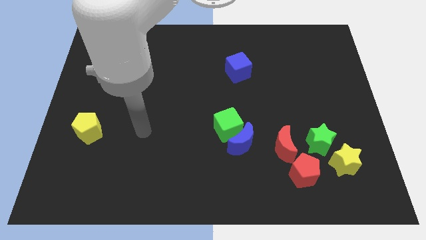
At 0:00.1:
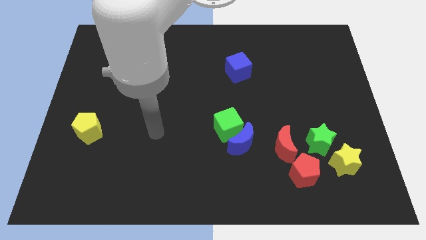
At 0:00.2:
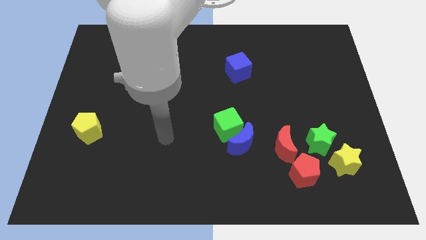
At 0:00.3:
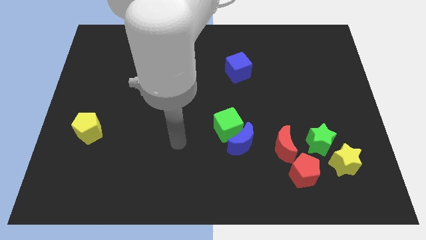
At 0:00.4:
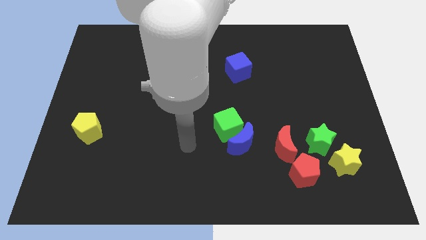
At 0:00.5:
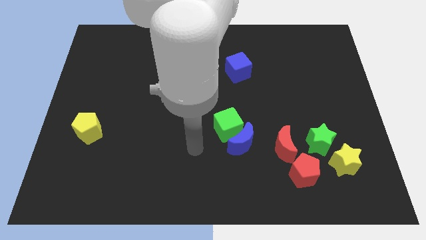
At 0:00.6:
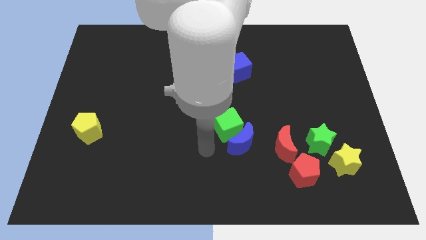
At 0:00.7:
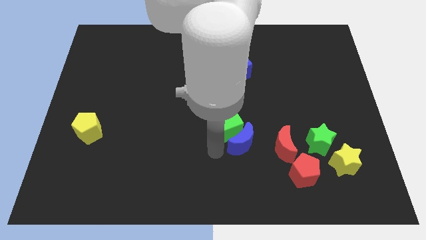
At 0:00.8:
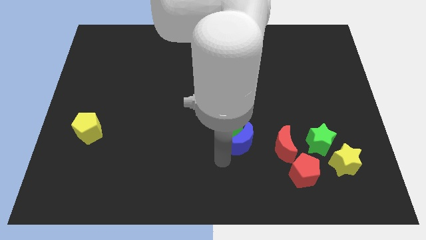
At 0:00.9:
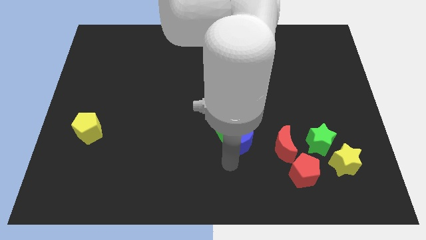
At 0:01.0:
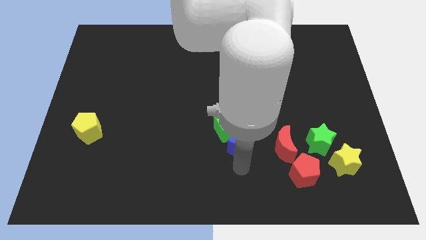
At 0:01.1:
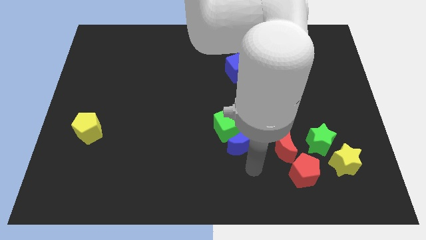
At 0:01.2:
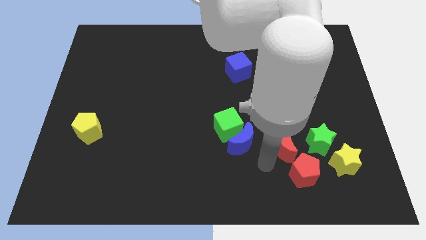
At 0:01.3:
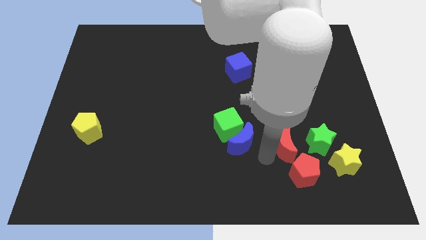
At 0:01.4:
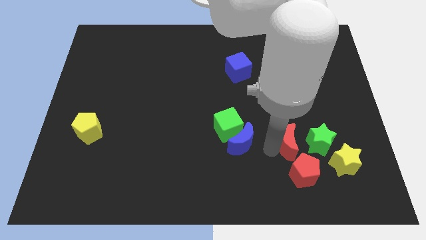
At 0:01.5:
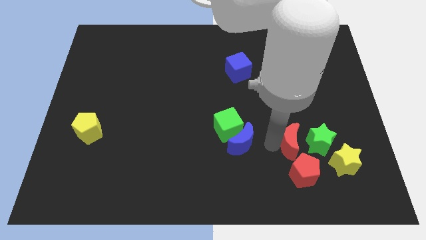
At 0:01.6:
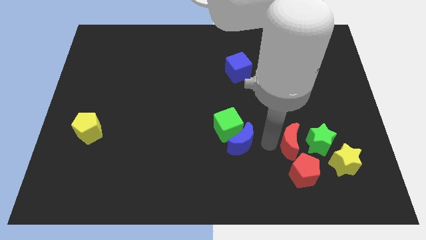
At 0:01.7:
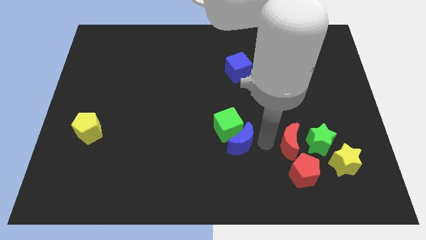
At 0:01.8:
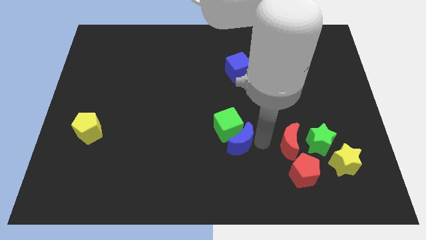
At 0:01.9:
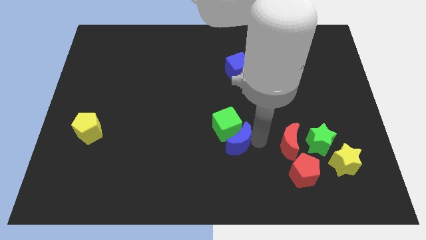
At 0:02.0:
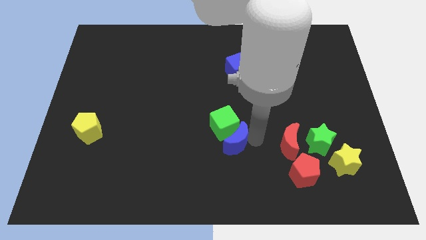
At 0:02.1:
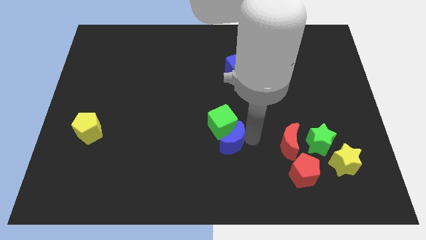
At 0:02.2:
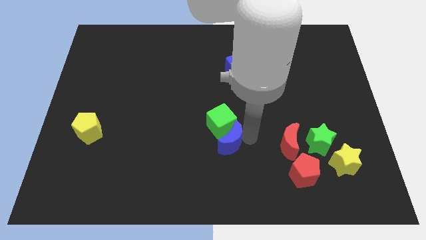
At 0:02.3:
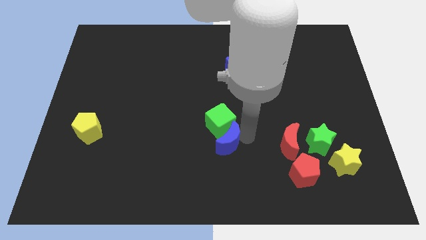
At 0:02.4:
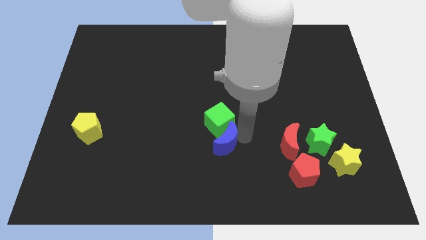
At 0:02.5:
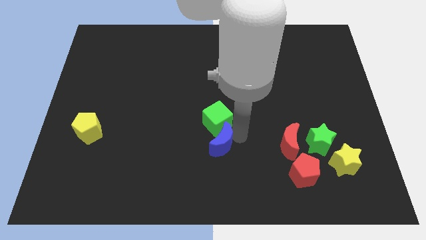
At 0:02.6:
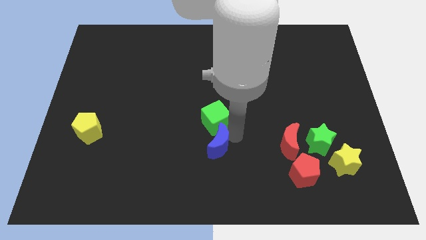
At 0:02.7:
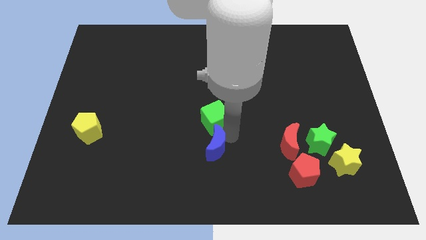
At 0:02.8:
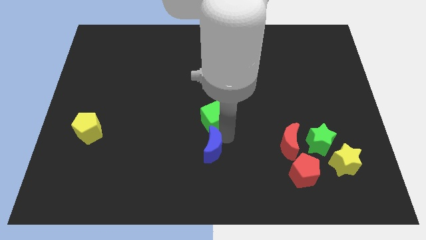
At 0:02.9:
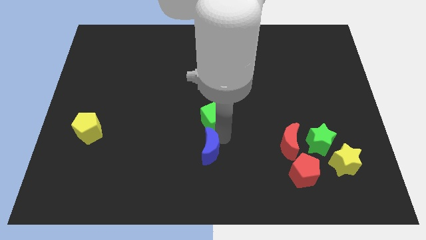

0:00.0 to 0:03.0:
move the blue moon a little bit left

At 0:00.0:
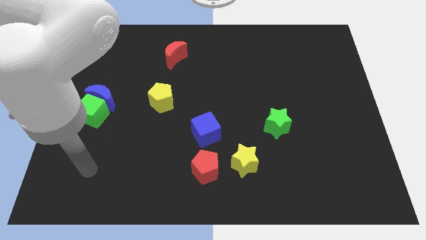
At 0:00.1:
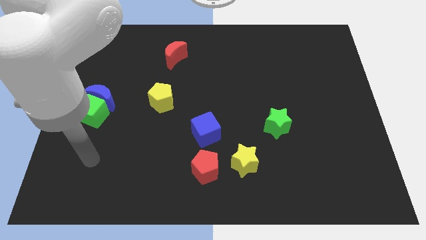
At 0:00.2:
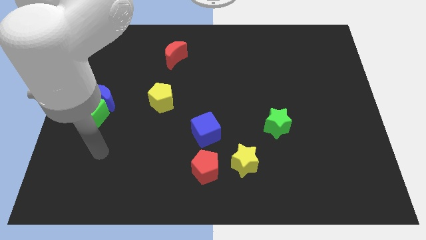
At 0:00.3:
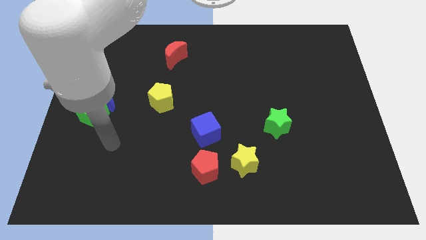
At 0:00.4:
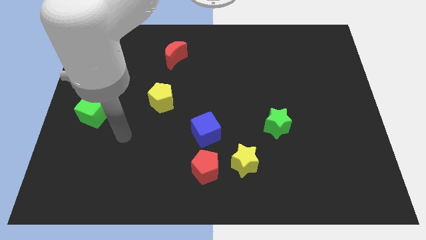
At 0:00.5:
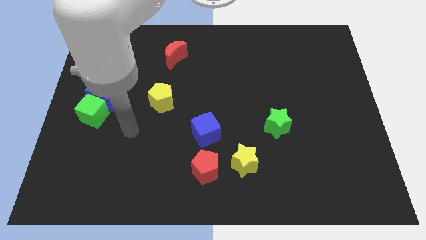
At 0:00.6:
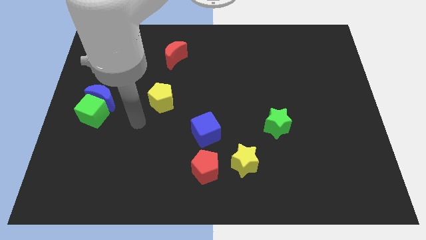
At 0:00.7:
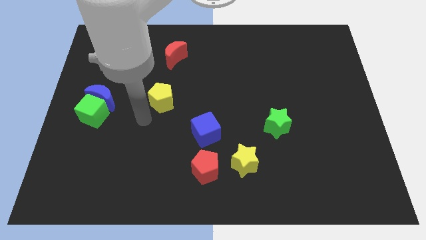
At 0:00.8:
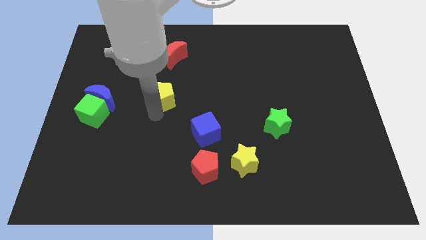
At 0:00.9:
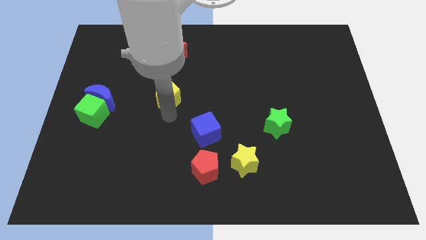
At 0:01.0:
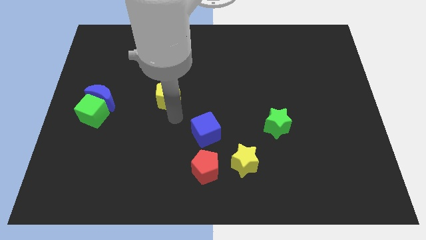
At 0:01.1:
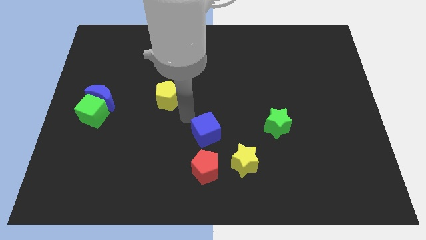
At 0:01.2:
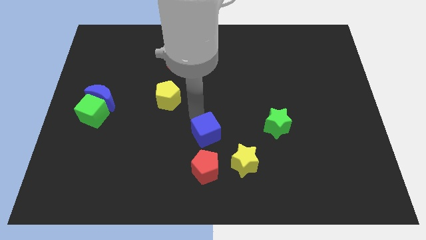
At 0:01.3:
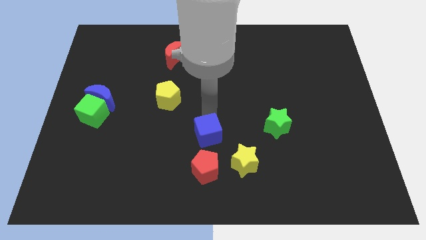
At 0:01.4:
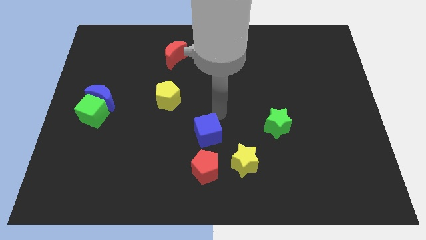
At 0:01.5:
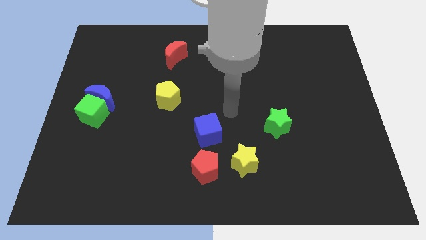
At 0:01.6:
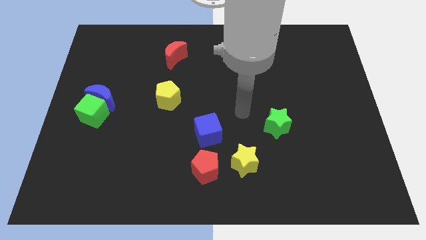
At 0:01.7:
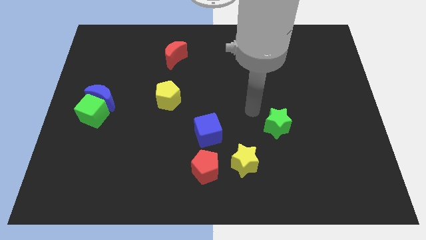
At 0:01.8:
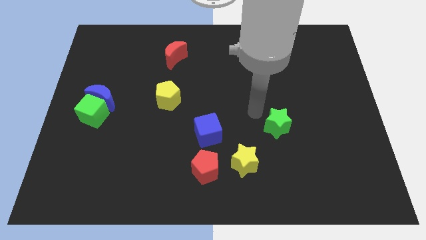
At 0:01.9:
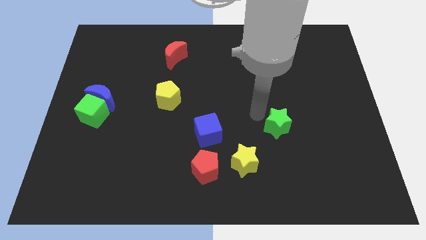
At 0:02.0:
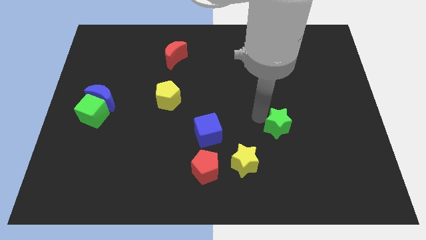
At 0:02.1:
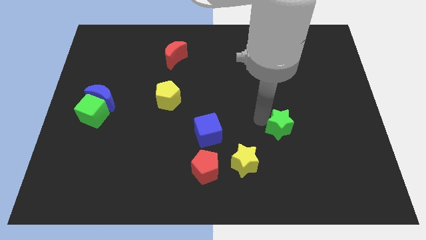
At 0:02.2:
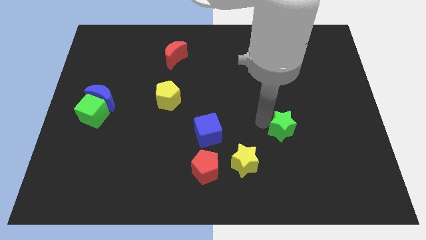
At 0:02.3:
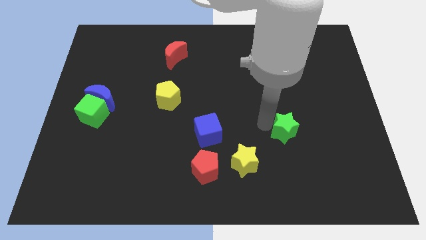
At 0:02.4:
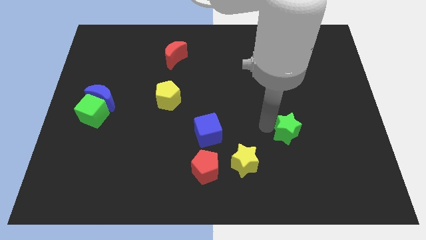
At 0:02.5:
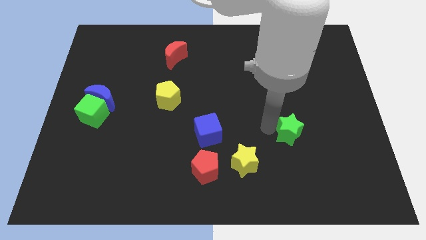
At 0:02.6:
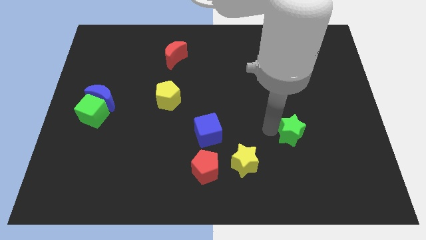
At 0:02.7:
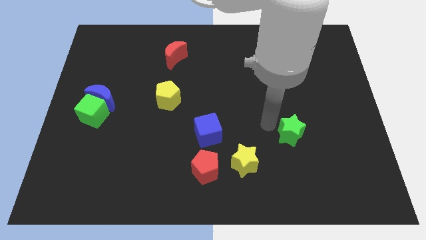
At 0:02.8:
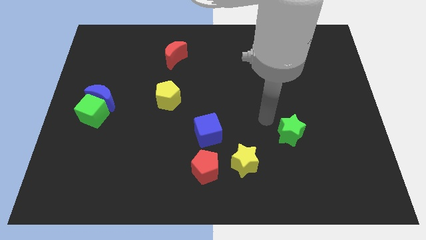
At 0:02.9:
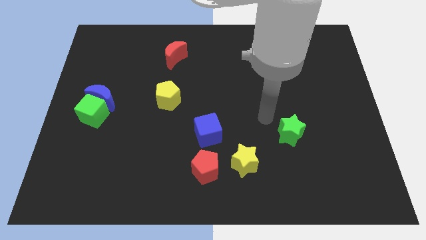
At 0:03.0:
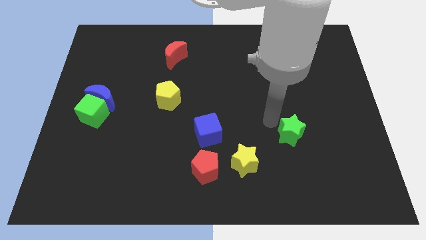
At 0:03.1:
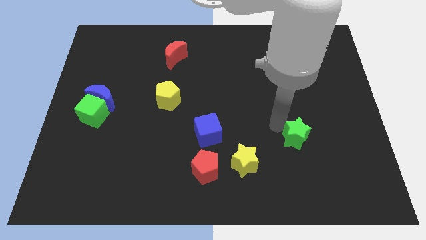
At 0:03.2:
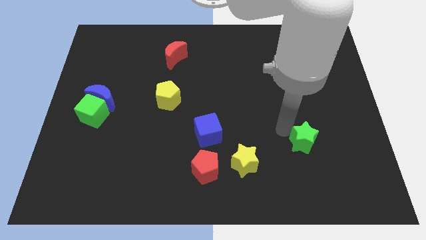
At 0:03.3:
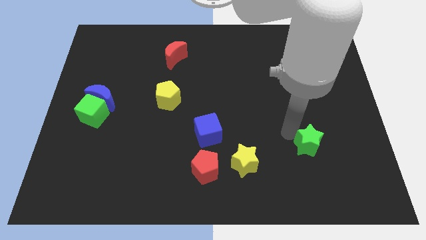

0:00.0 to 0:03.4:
push the green star diagonally downwards and to the right a little bit

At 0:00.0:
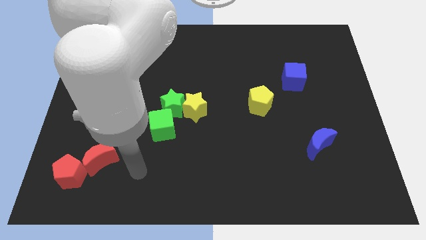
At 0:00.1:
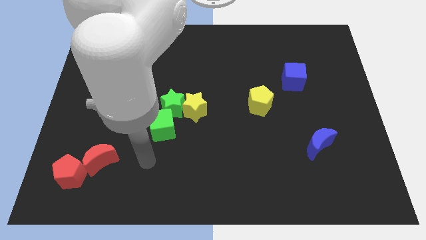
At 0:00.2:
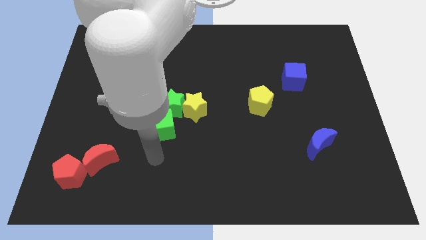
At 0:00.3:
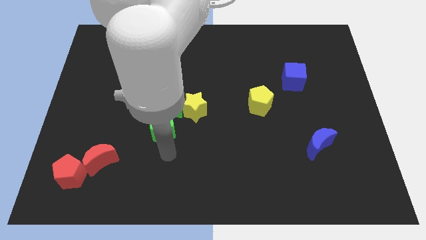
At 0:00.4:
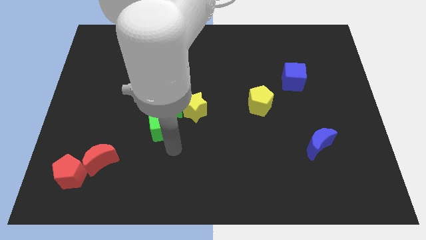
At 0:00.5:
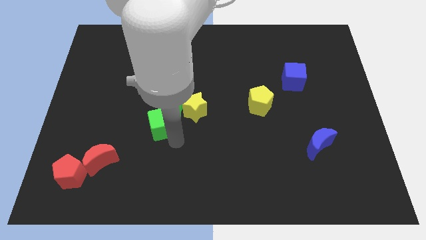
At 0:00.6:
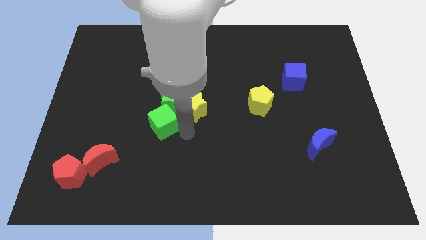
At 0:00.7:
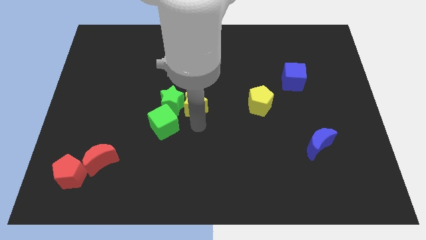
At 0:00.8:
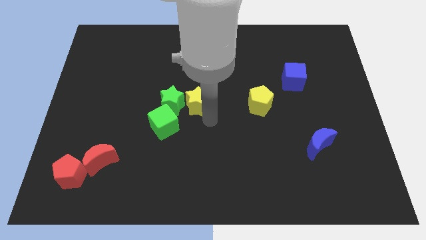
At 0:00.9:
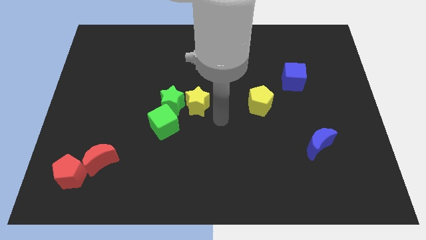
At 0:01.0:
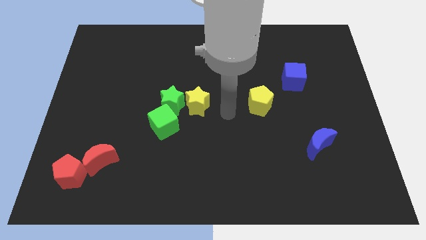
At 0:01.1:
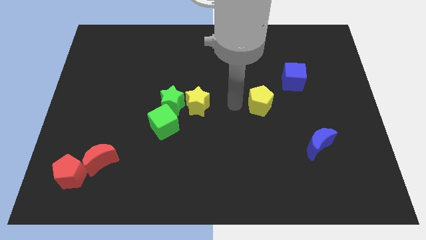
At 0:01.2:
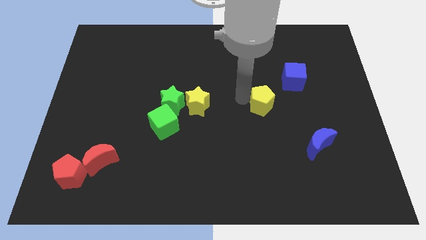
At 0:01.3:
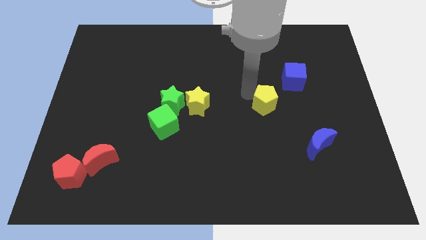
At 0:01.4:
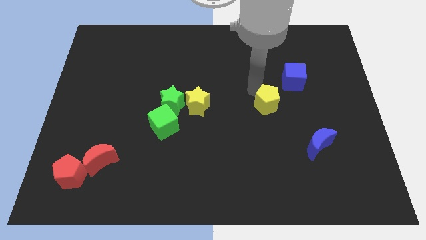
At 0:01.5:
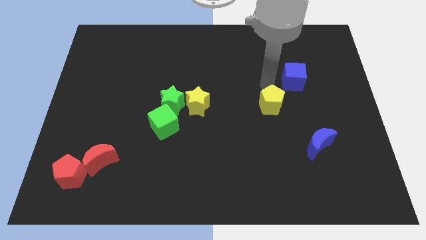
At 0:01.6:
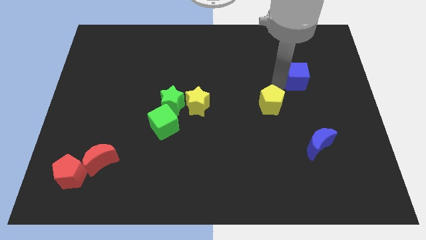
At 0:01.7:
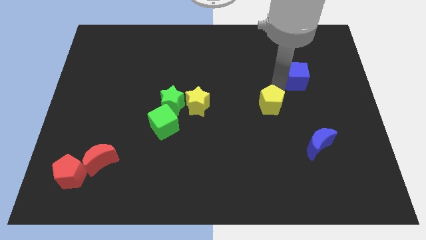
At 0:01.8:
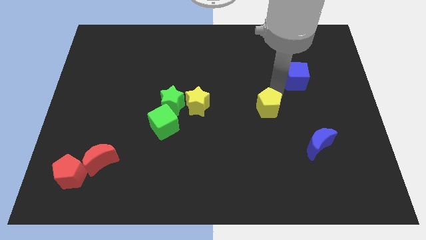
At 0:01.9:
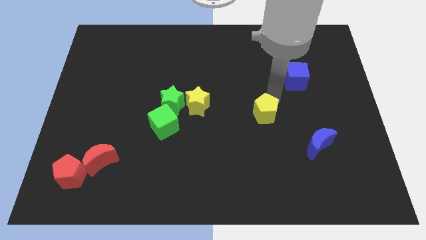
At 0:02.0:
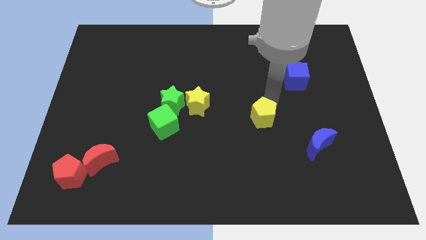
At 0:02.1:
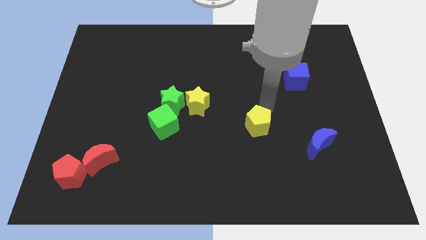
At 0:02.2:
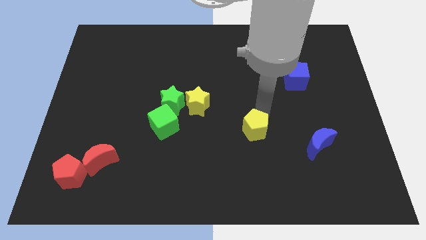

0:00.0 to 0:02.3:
slide the yellow pentagon down slightly
